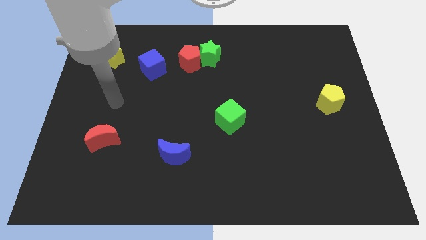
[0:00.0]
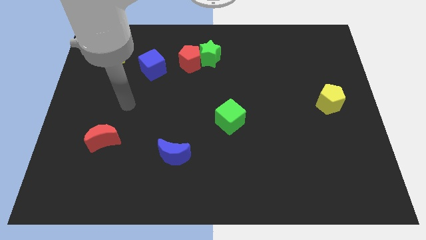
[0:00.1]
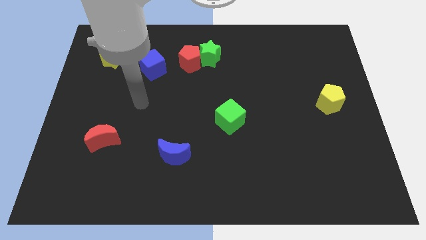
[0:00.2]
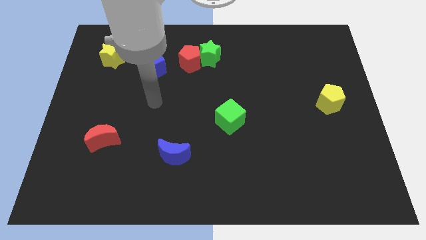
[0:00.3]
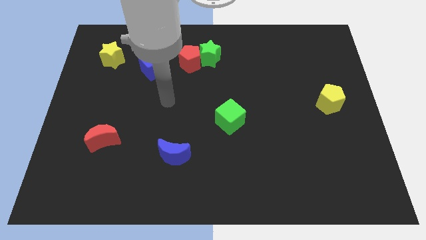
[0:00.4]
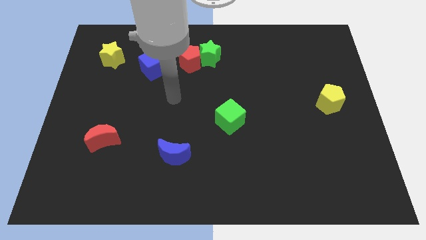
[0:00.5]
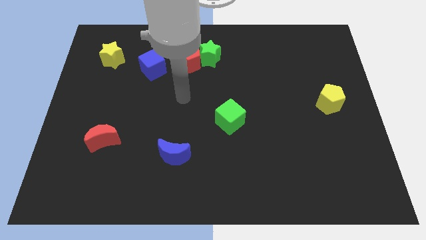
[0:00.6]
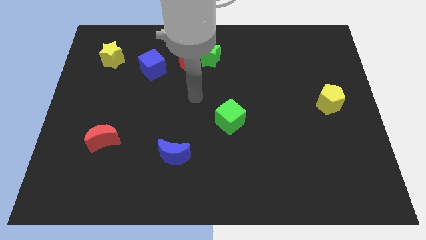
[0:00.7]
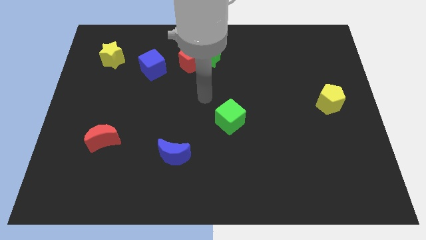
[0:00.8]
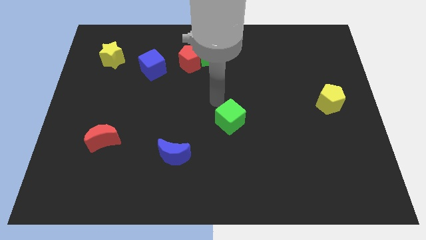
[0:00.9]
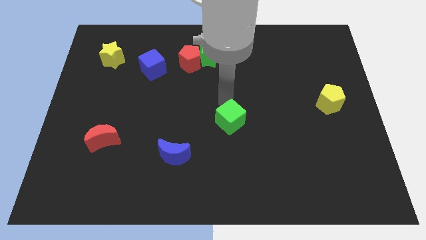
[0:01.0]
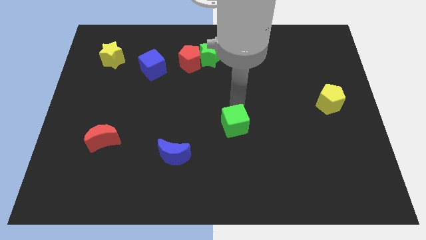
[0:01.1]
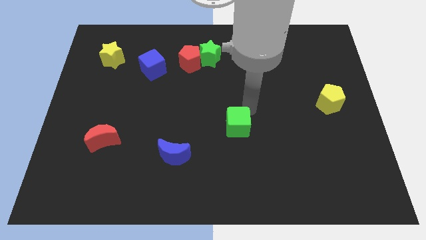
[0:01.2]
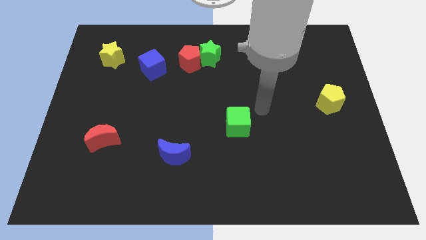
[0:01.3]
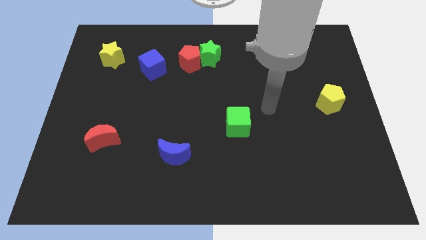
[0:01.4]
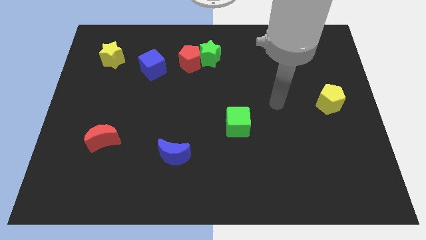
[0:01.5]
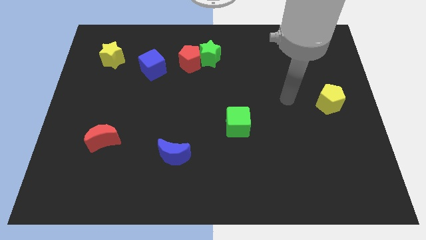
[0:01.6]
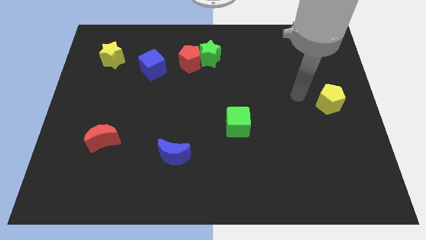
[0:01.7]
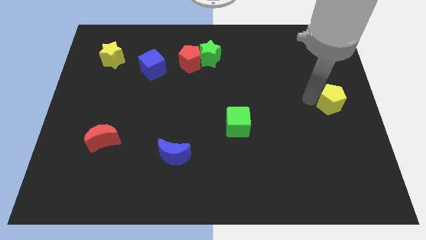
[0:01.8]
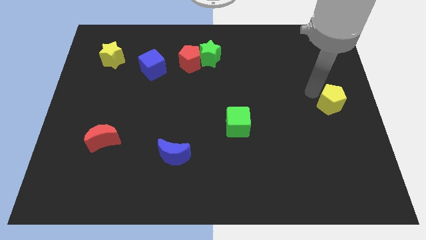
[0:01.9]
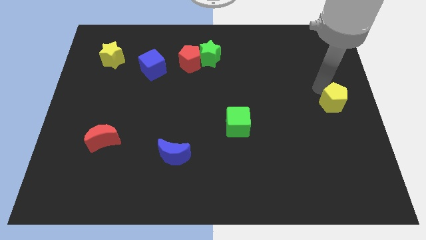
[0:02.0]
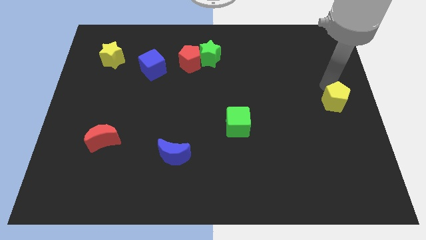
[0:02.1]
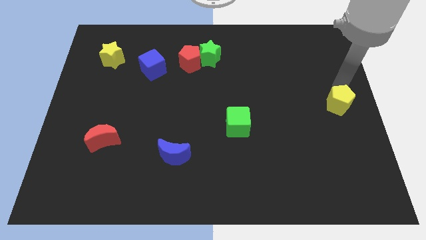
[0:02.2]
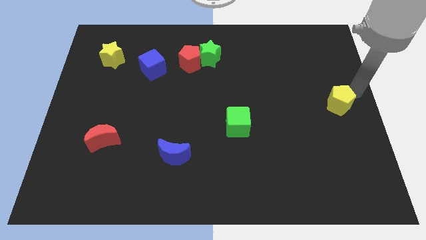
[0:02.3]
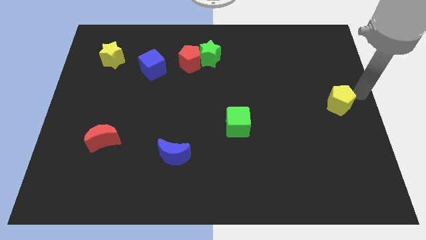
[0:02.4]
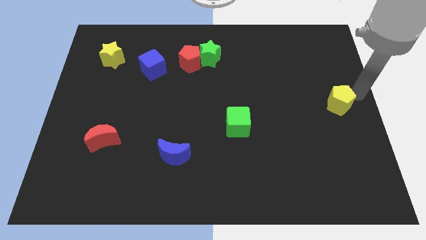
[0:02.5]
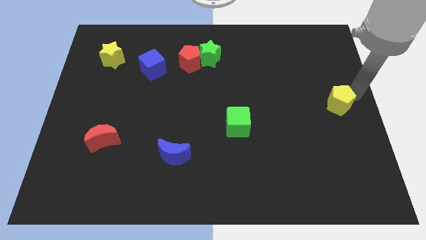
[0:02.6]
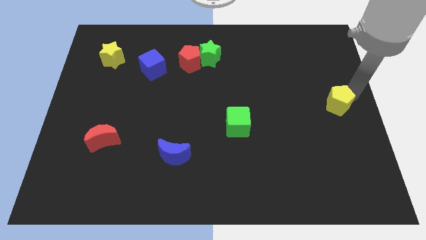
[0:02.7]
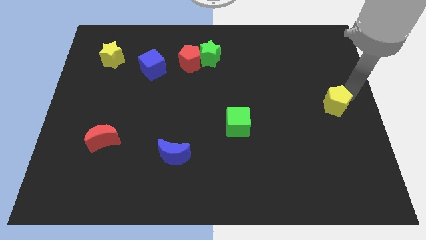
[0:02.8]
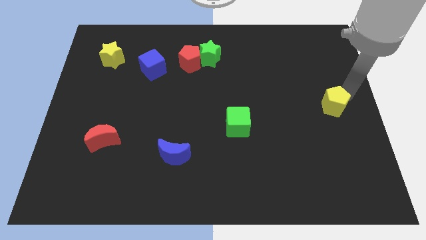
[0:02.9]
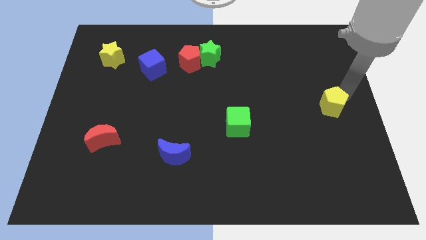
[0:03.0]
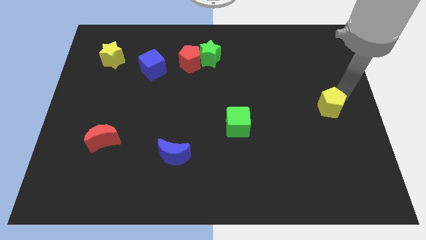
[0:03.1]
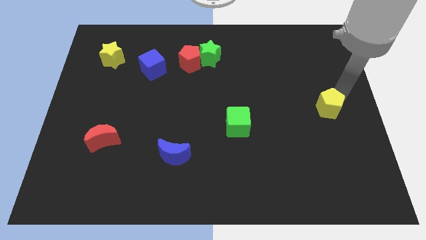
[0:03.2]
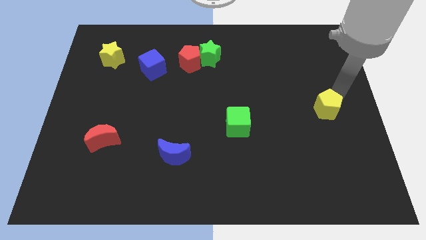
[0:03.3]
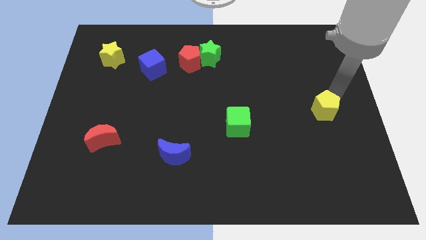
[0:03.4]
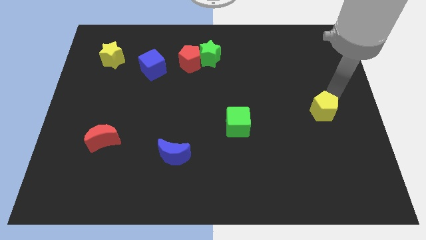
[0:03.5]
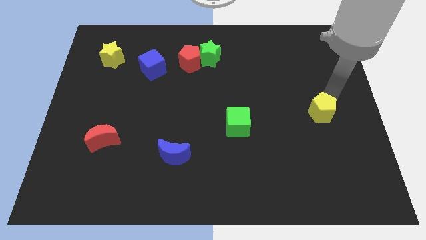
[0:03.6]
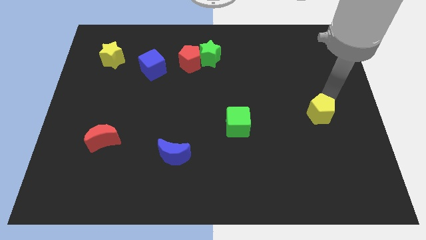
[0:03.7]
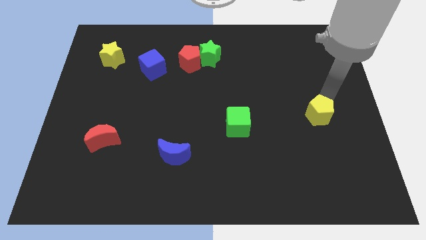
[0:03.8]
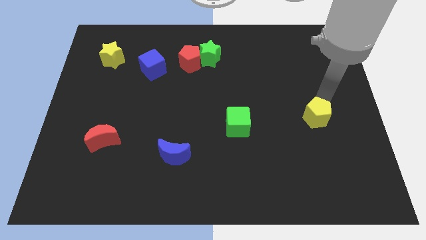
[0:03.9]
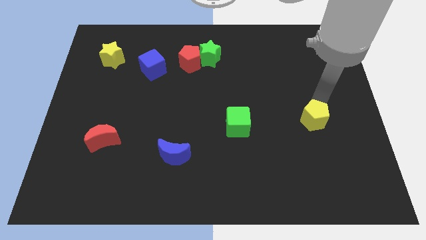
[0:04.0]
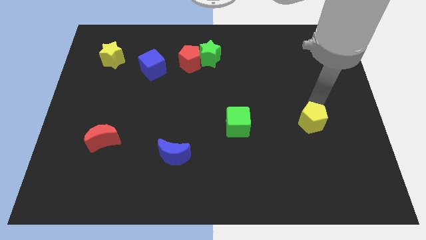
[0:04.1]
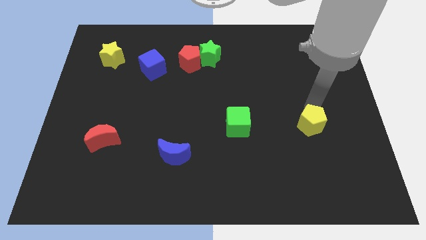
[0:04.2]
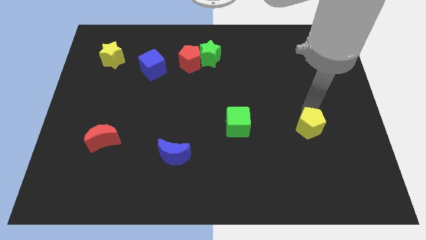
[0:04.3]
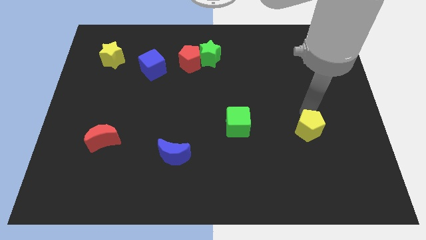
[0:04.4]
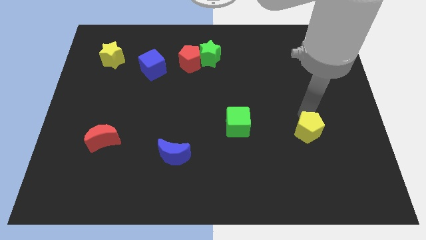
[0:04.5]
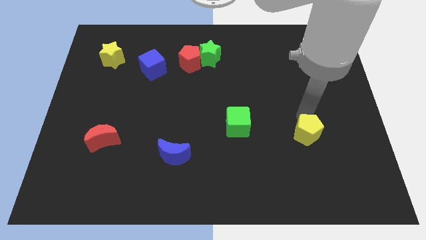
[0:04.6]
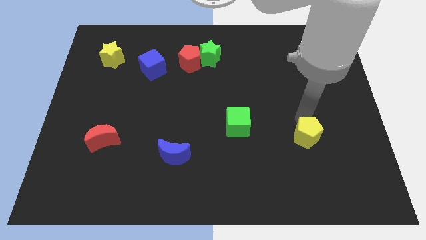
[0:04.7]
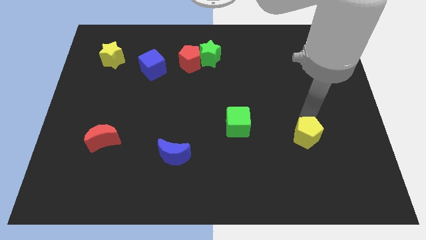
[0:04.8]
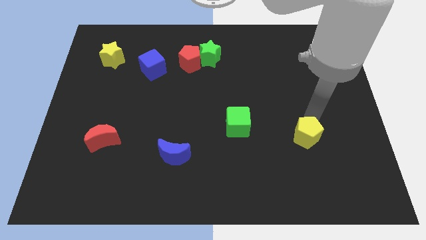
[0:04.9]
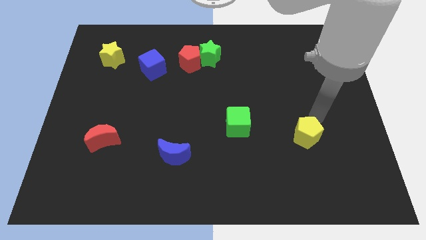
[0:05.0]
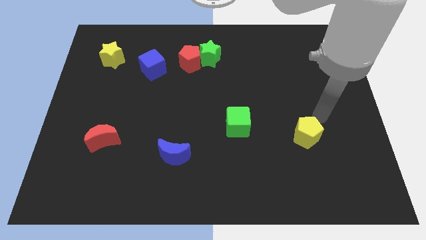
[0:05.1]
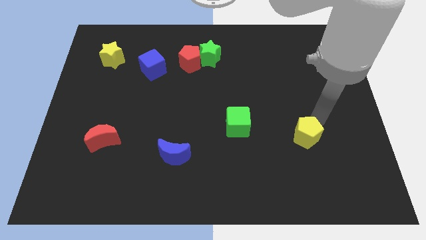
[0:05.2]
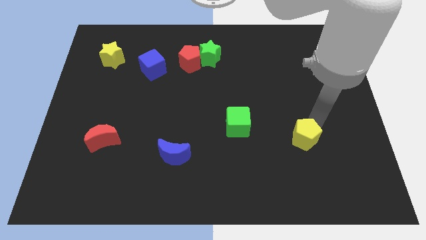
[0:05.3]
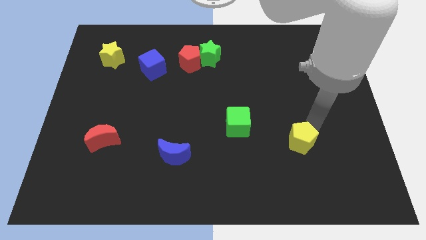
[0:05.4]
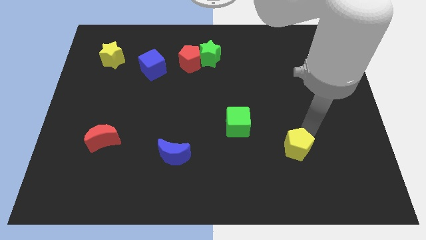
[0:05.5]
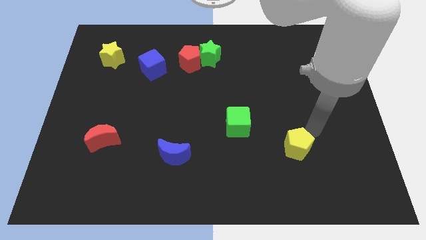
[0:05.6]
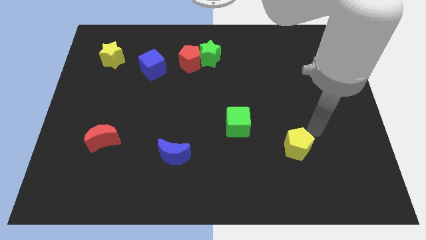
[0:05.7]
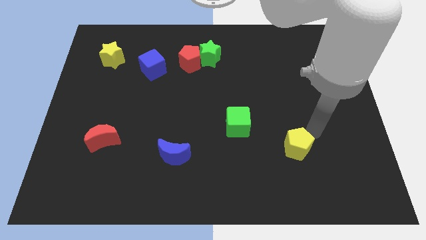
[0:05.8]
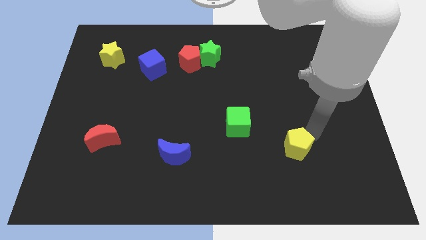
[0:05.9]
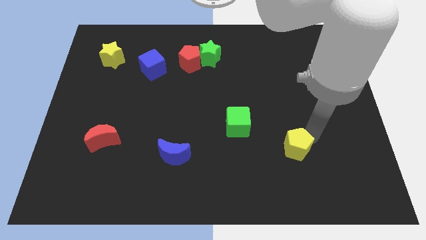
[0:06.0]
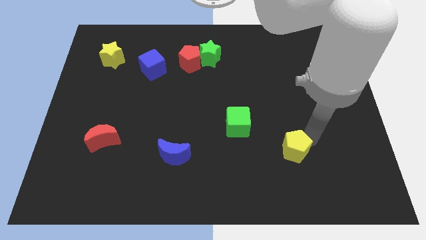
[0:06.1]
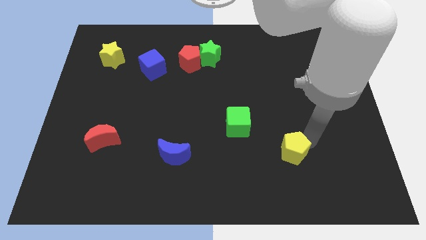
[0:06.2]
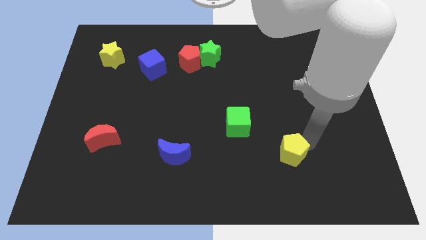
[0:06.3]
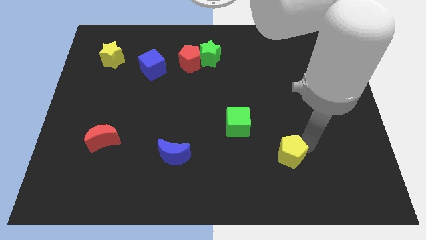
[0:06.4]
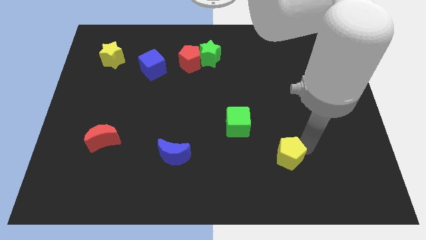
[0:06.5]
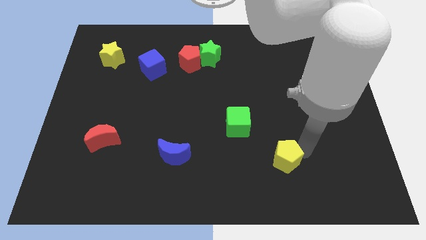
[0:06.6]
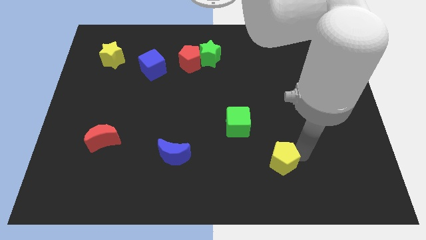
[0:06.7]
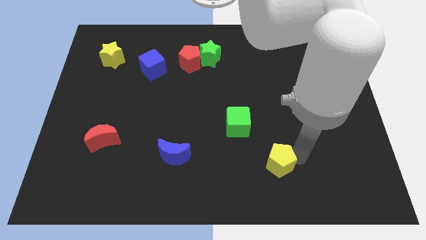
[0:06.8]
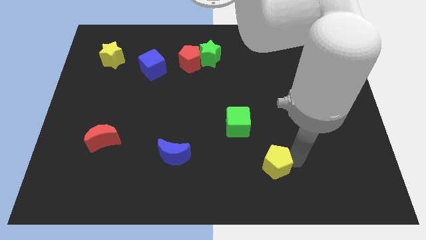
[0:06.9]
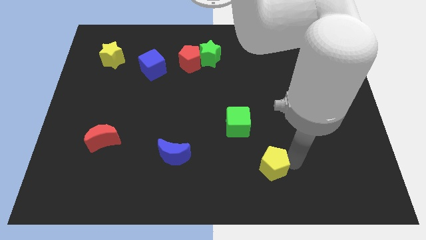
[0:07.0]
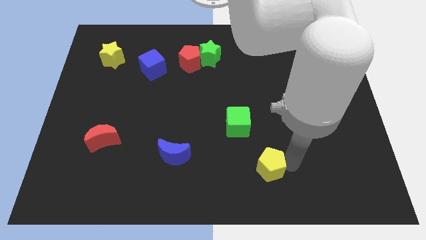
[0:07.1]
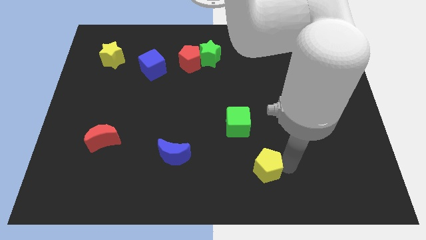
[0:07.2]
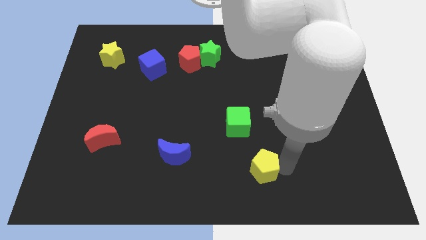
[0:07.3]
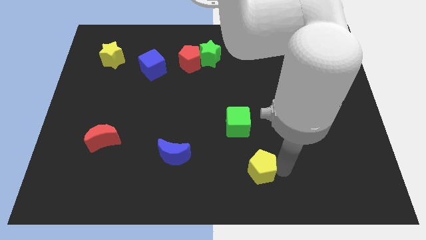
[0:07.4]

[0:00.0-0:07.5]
slide the yellow pentagon to the bottom side
